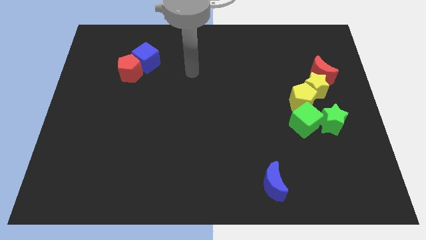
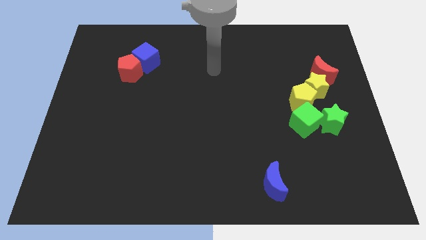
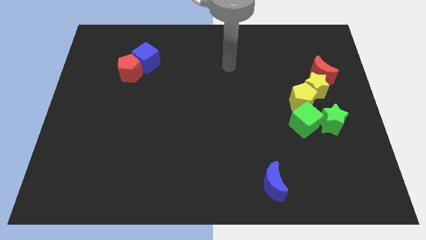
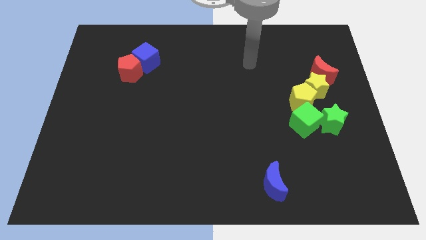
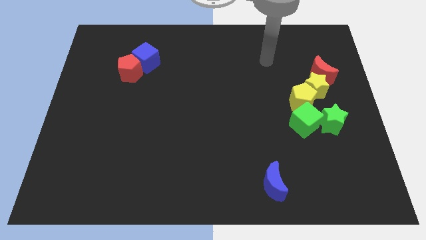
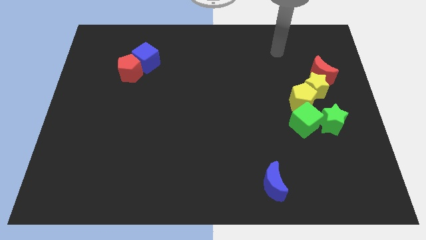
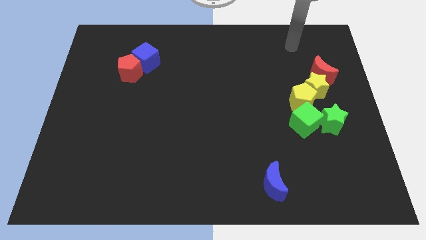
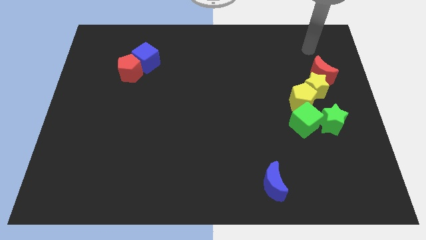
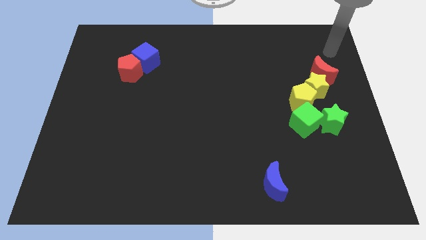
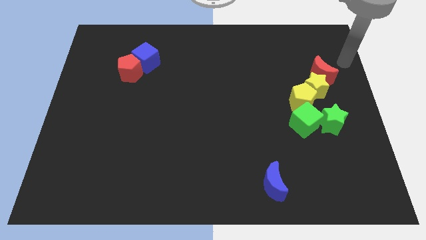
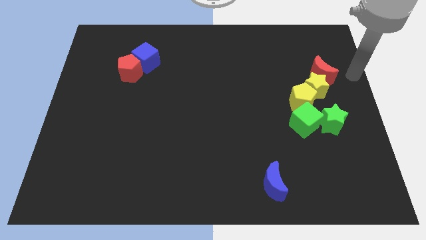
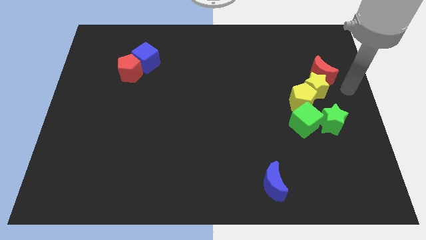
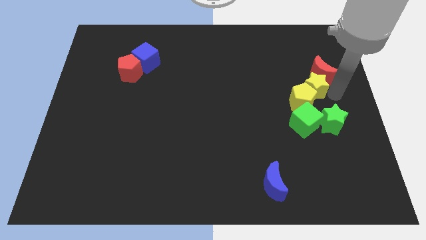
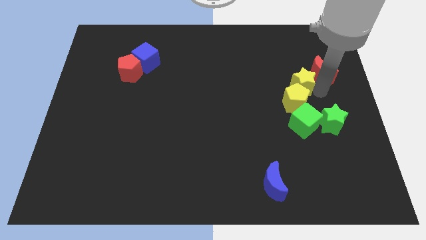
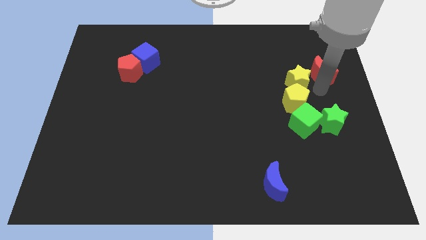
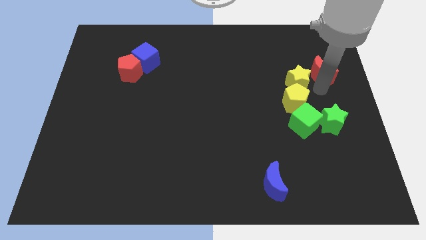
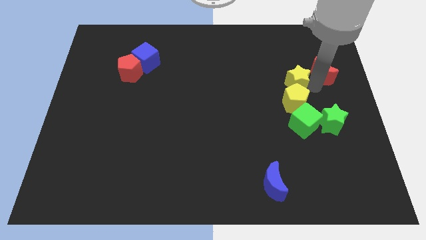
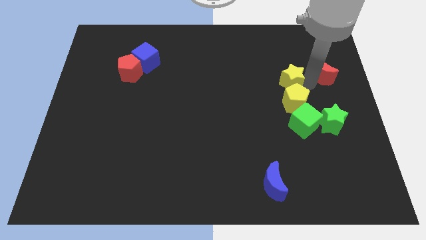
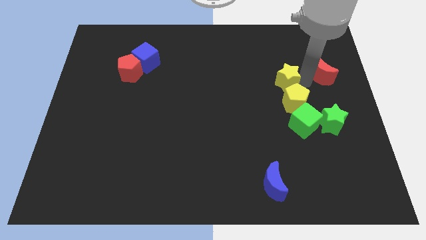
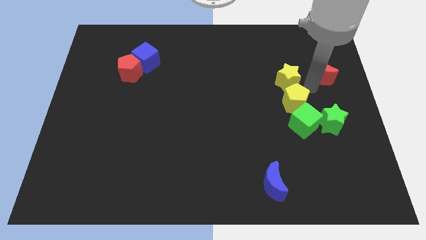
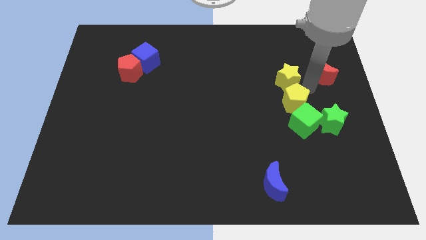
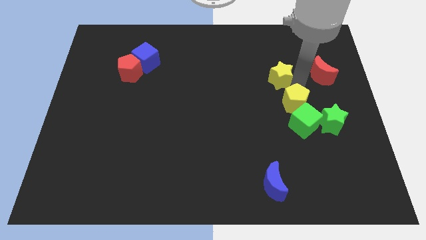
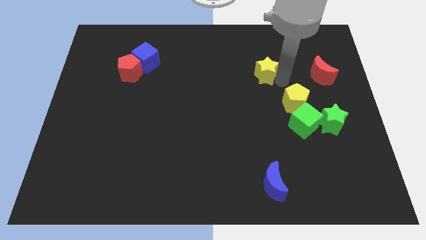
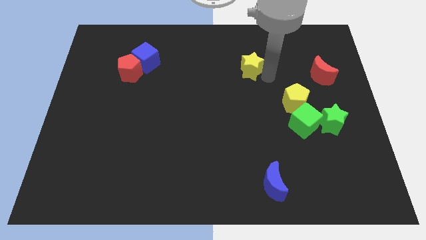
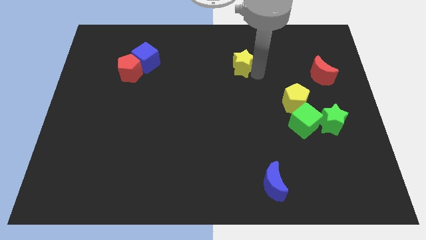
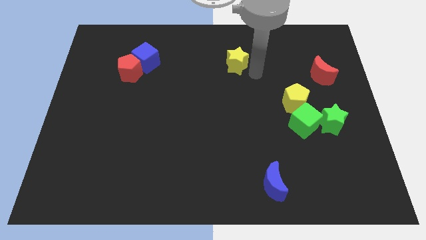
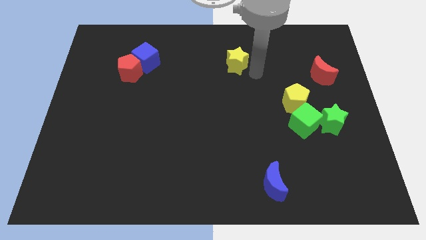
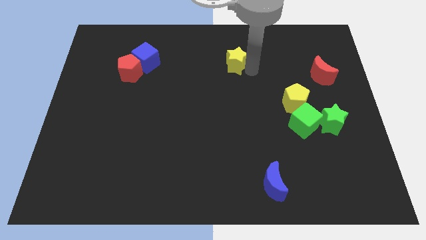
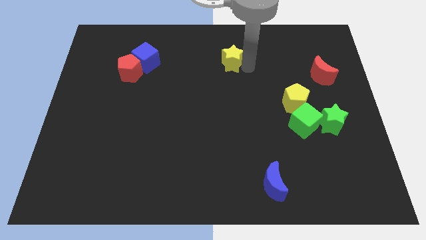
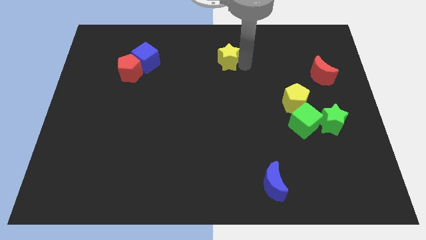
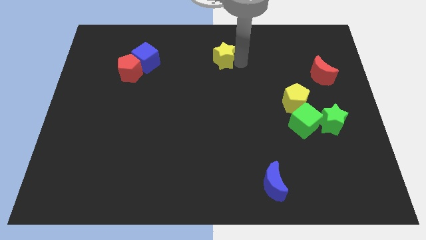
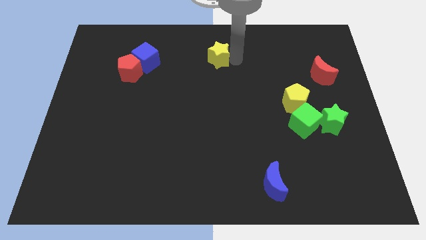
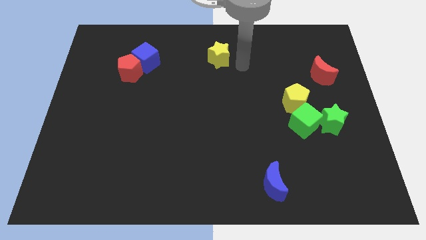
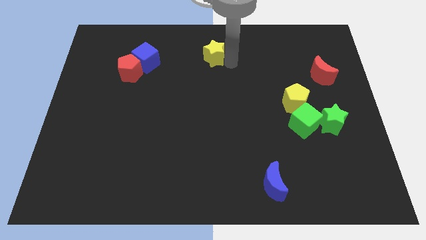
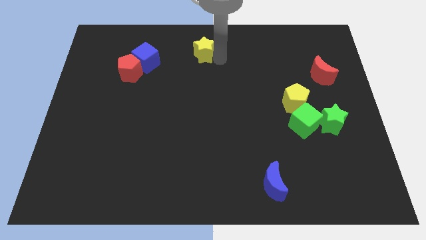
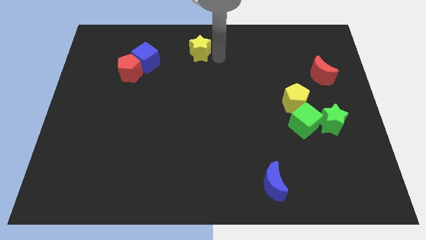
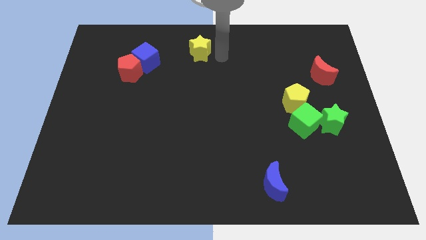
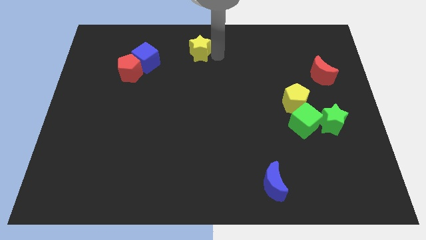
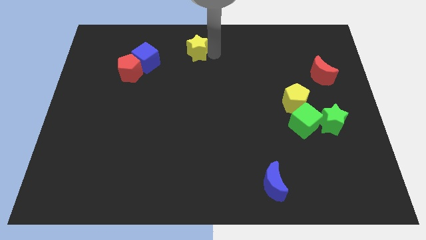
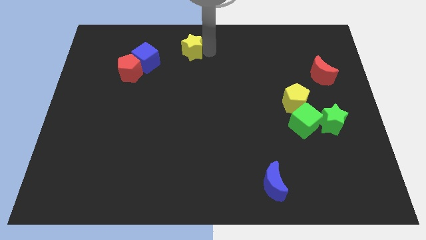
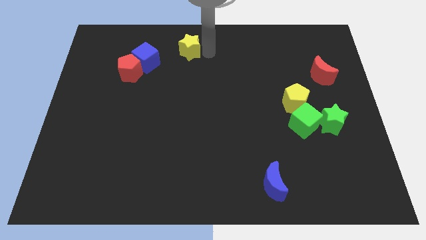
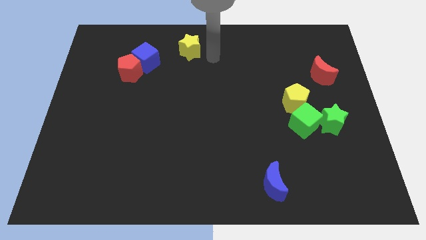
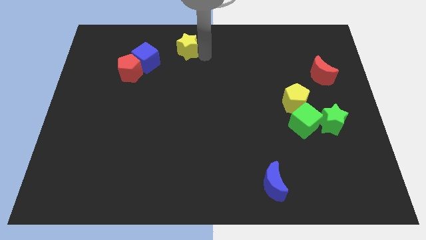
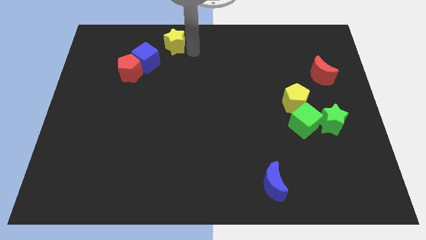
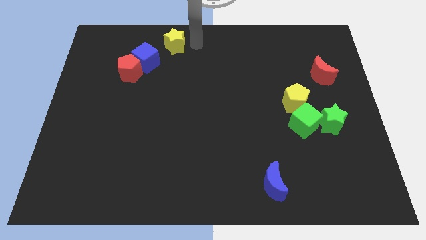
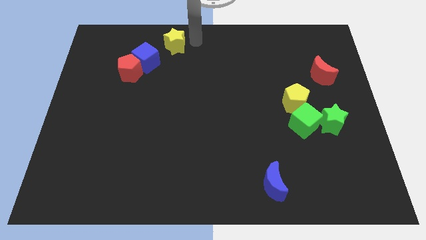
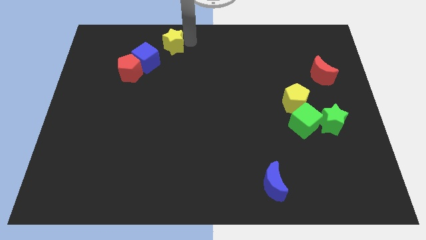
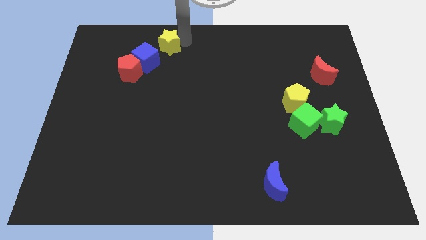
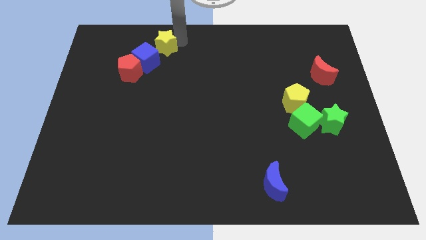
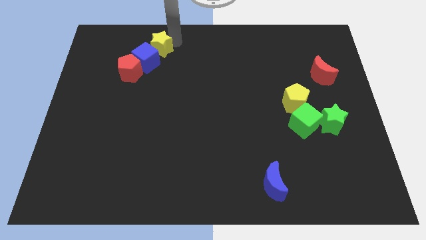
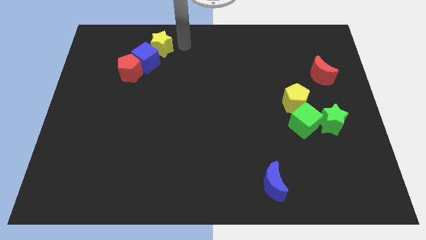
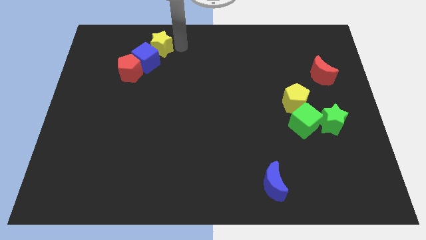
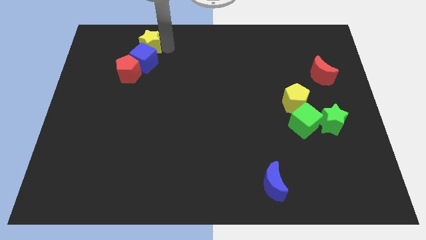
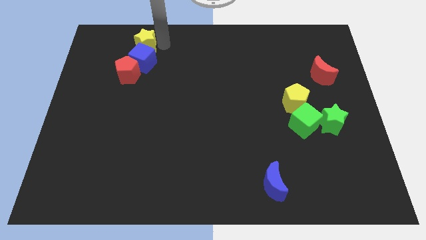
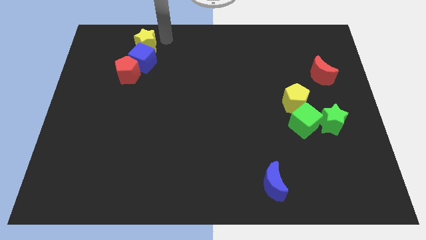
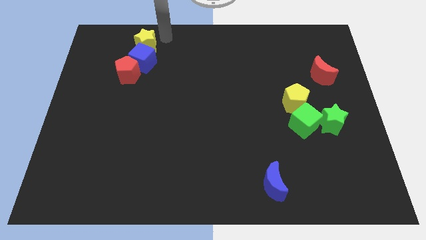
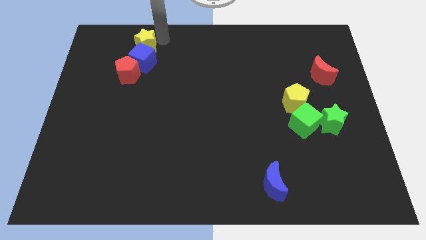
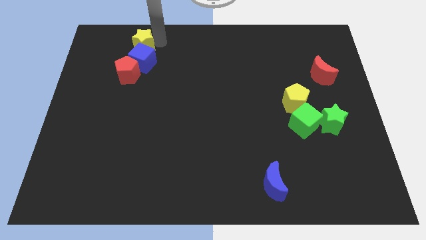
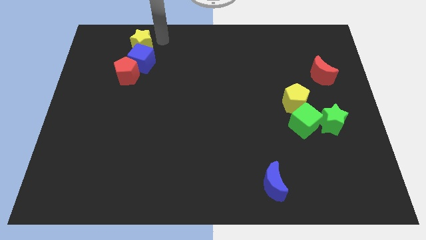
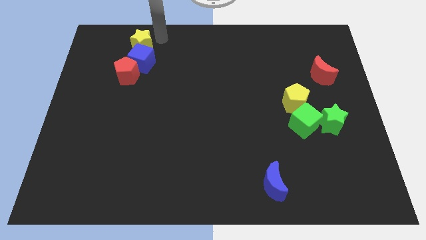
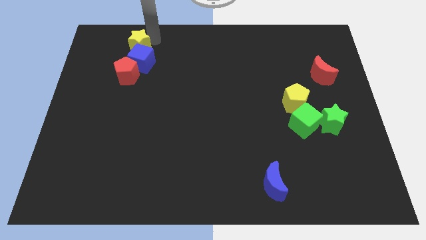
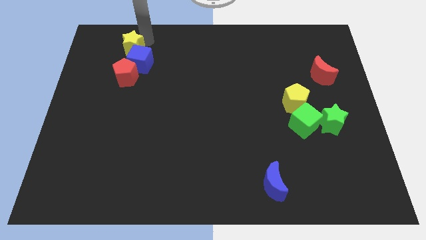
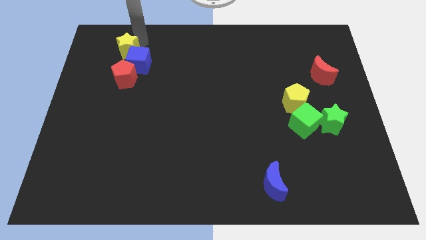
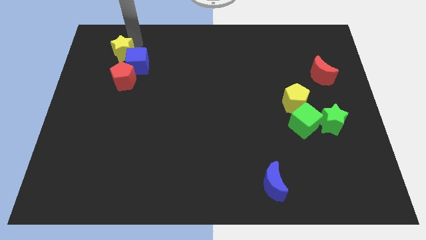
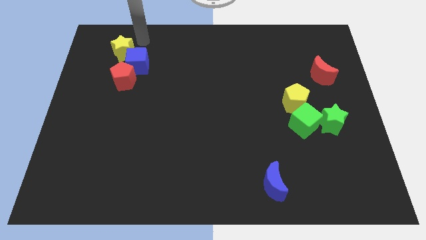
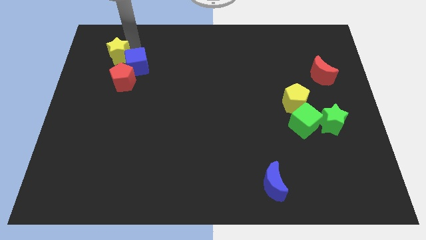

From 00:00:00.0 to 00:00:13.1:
move the yellow star diagonally up and to the left of the red pentagon
